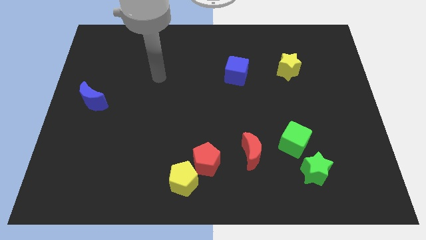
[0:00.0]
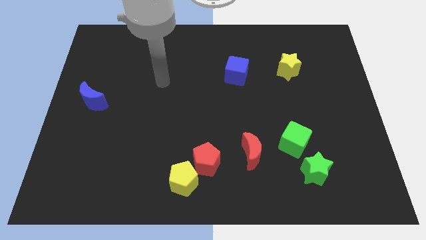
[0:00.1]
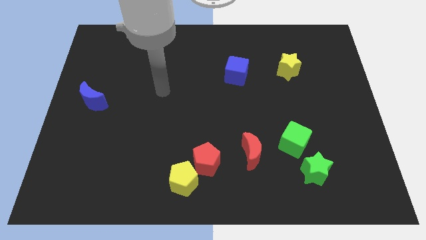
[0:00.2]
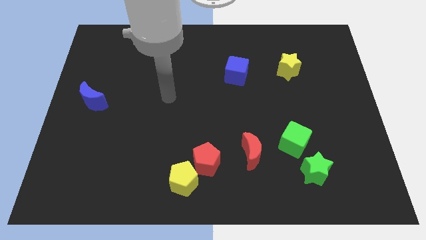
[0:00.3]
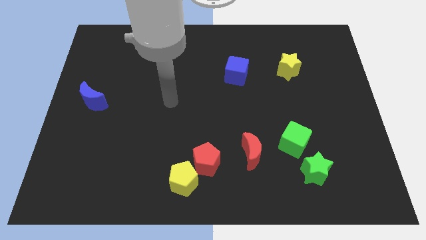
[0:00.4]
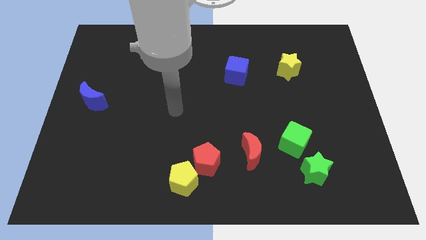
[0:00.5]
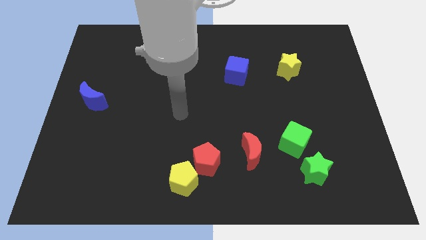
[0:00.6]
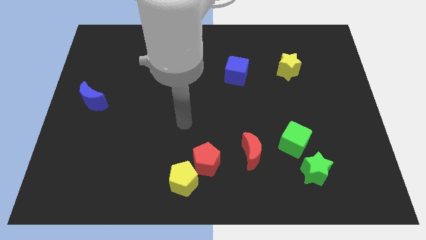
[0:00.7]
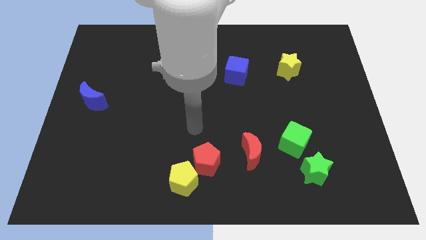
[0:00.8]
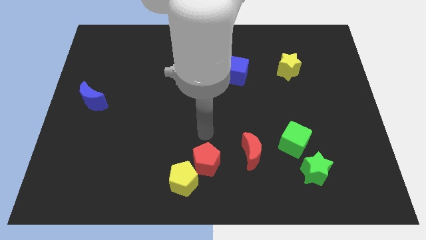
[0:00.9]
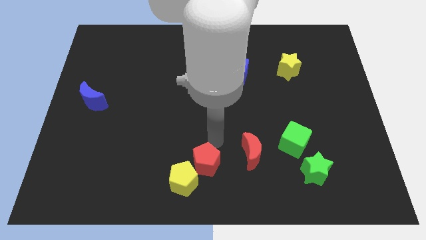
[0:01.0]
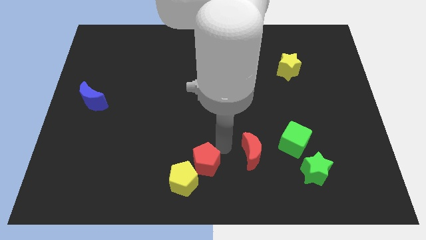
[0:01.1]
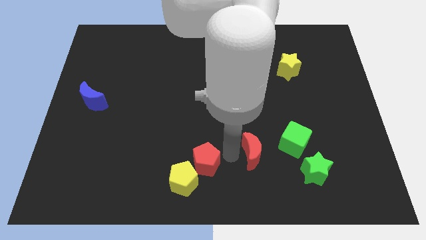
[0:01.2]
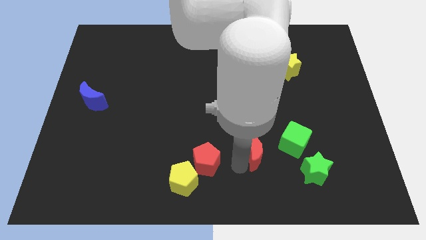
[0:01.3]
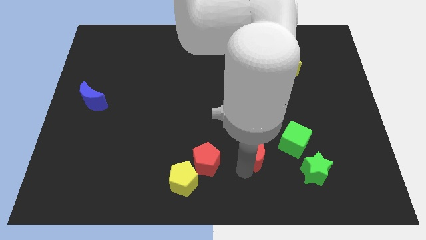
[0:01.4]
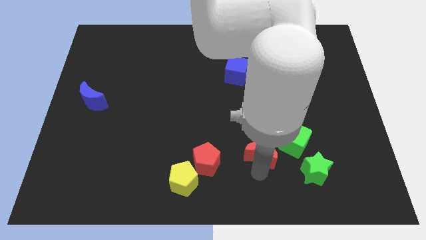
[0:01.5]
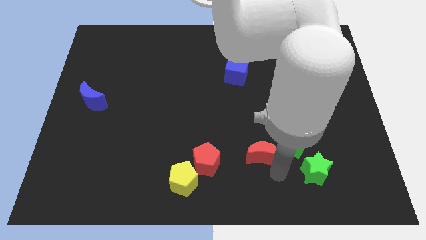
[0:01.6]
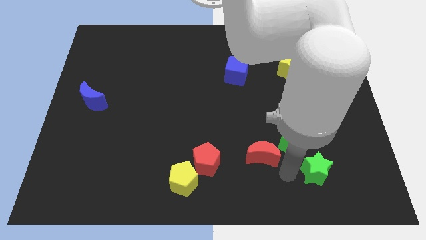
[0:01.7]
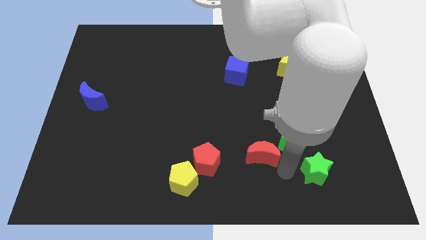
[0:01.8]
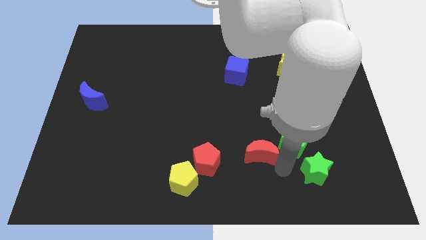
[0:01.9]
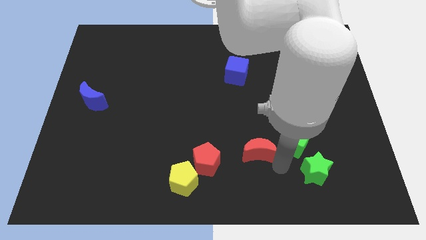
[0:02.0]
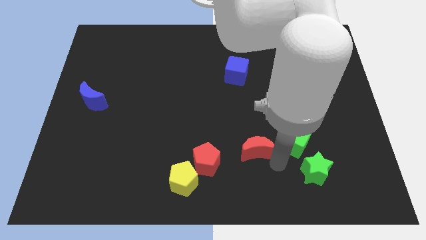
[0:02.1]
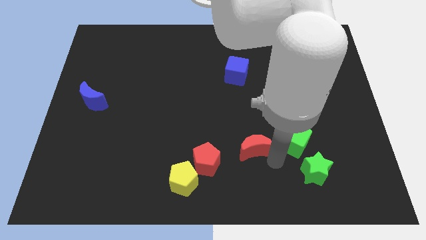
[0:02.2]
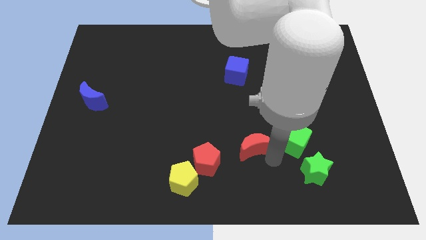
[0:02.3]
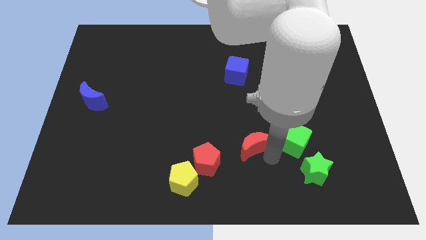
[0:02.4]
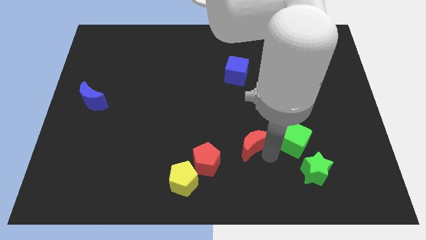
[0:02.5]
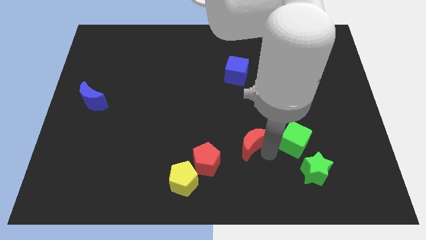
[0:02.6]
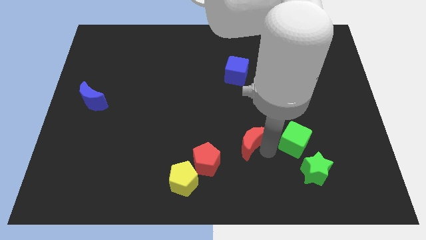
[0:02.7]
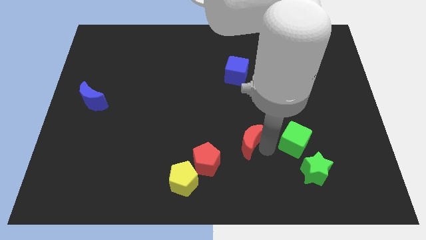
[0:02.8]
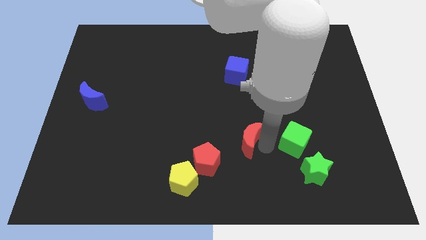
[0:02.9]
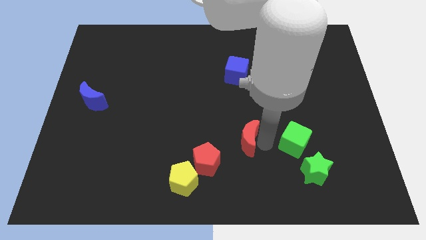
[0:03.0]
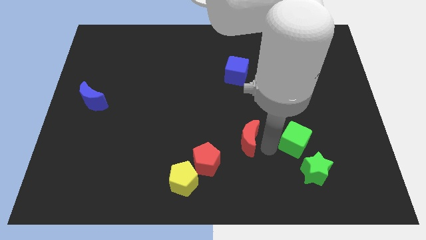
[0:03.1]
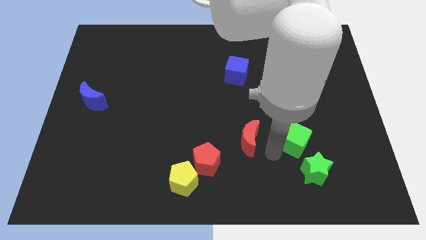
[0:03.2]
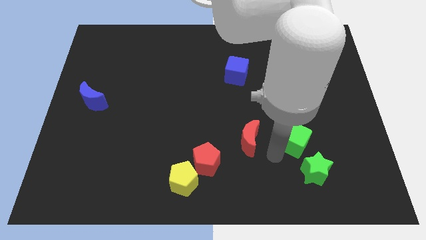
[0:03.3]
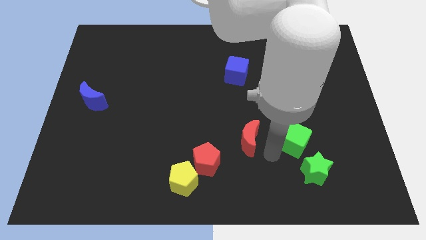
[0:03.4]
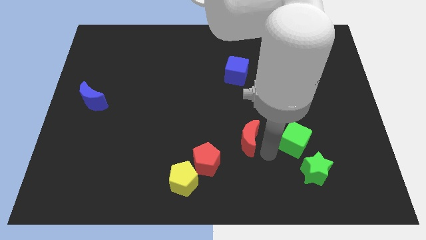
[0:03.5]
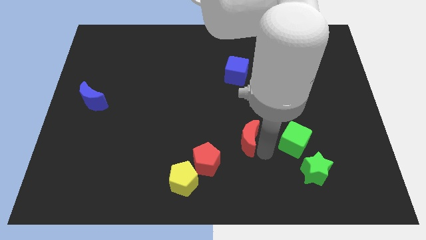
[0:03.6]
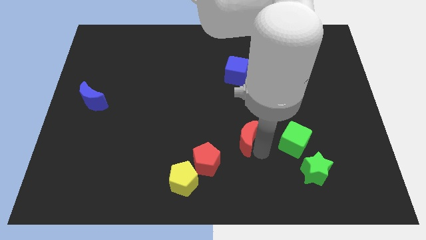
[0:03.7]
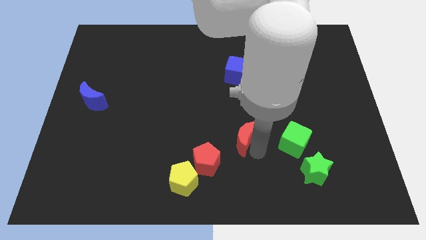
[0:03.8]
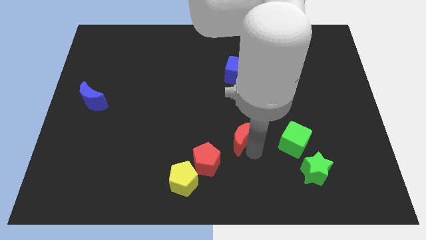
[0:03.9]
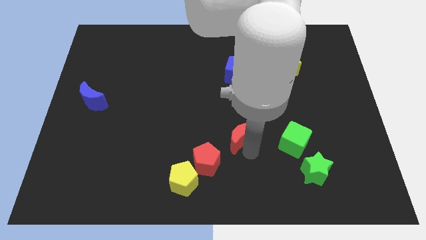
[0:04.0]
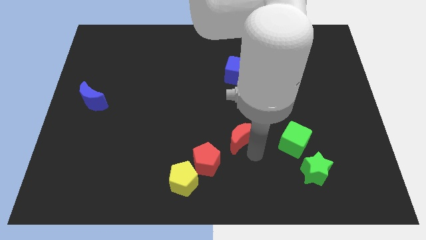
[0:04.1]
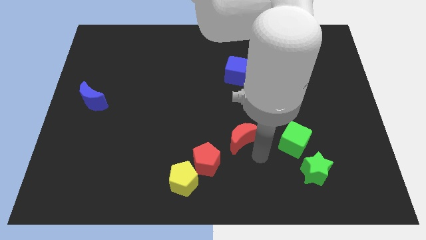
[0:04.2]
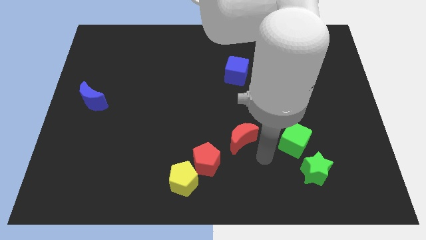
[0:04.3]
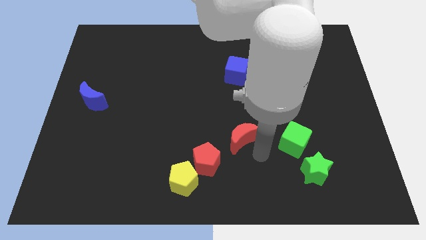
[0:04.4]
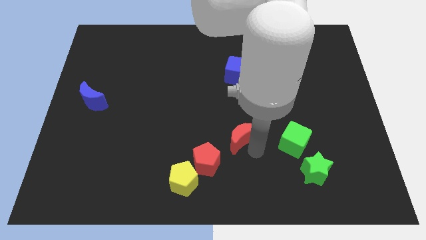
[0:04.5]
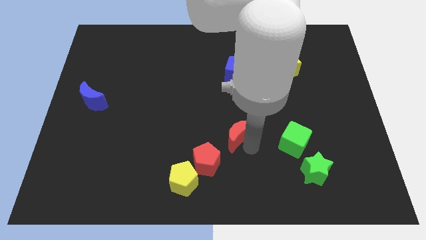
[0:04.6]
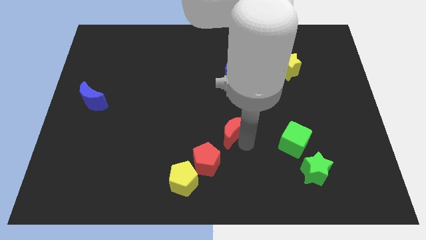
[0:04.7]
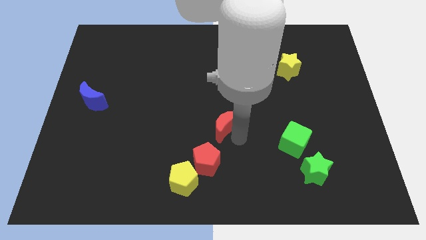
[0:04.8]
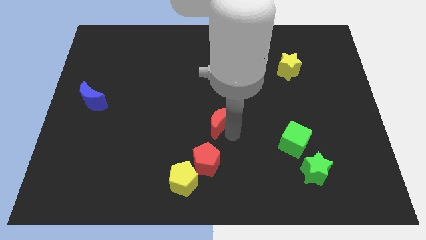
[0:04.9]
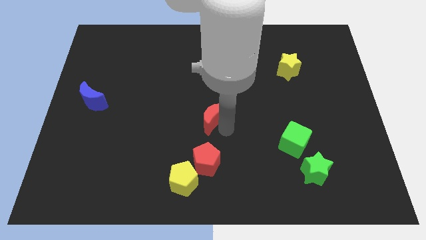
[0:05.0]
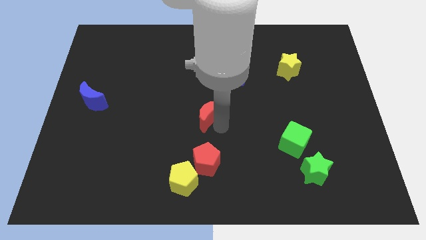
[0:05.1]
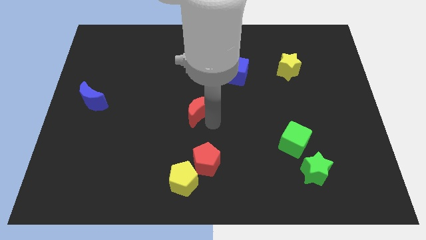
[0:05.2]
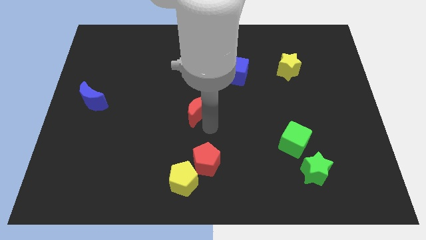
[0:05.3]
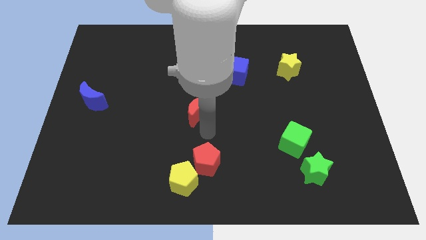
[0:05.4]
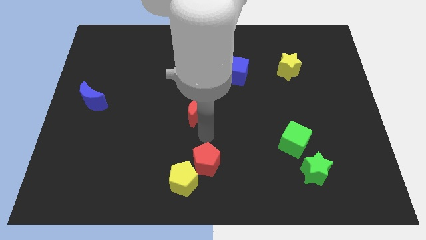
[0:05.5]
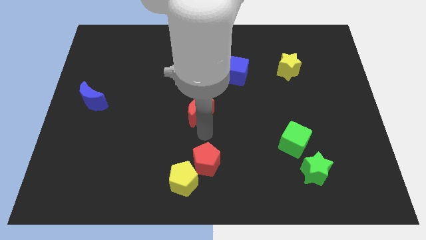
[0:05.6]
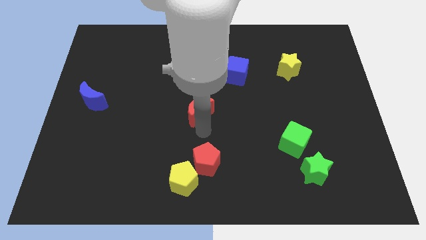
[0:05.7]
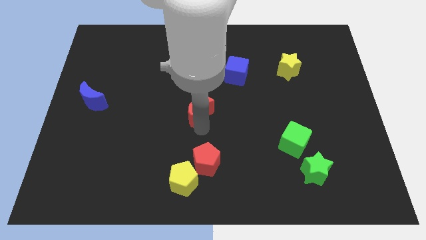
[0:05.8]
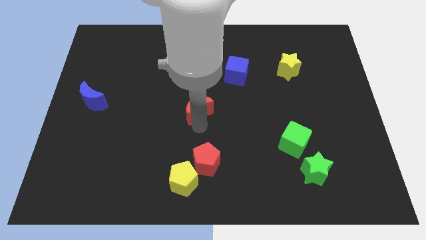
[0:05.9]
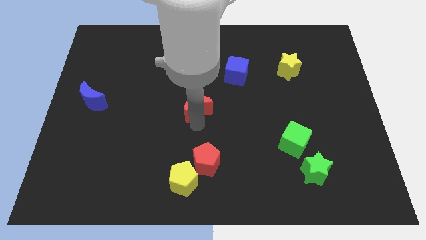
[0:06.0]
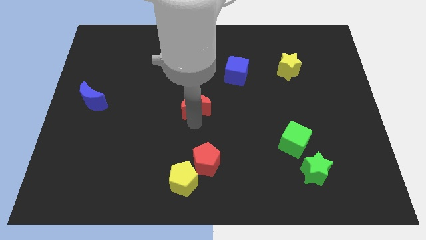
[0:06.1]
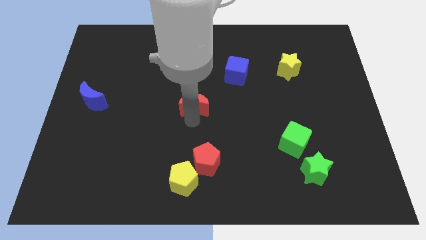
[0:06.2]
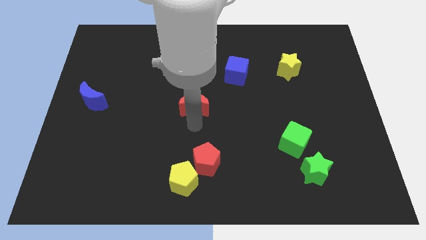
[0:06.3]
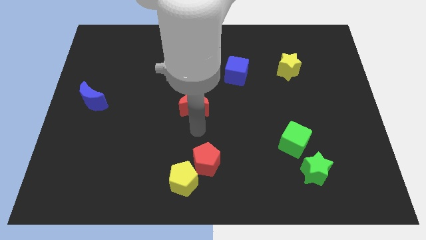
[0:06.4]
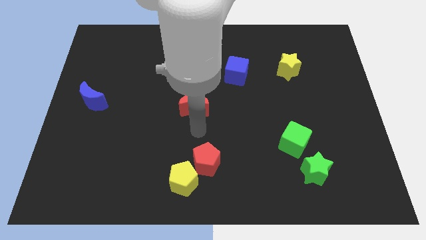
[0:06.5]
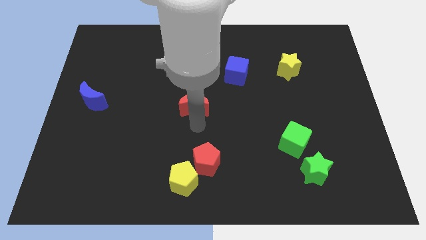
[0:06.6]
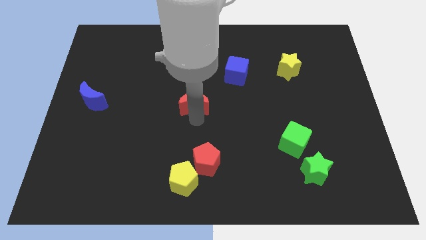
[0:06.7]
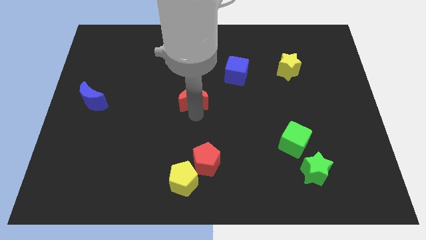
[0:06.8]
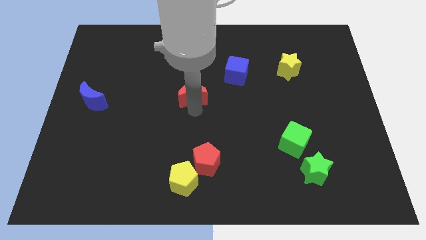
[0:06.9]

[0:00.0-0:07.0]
slide the red moon upwards and then to the left

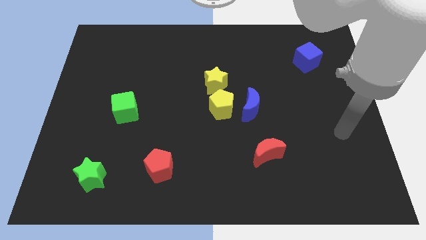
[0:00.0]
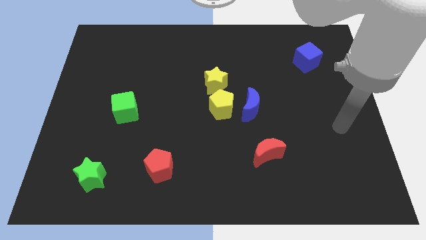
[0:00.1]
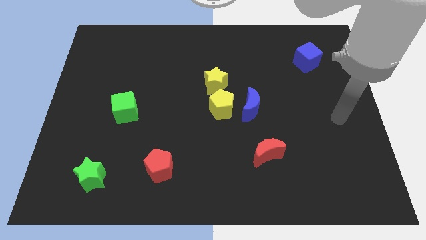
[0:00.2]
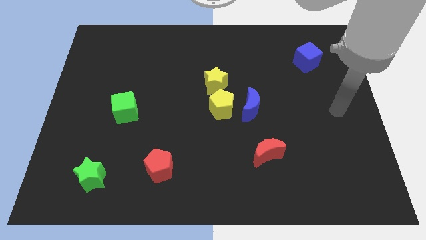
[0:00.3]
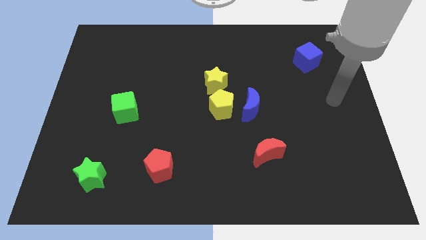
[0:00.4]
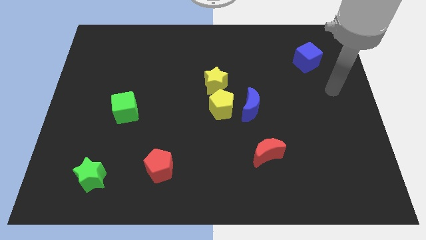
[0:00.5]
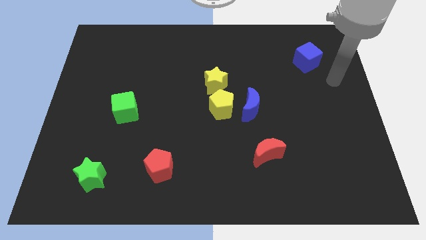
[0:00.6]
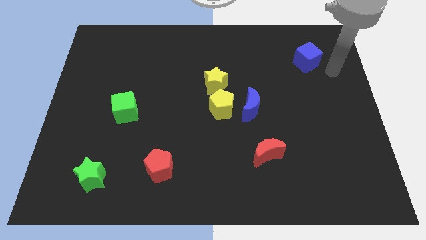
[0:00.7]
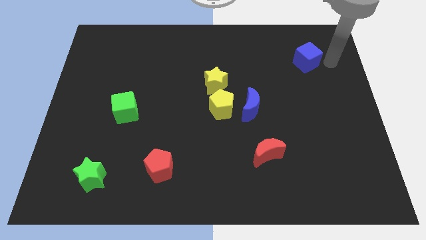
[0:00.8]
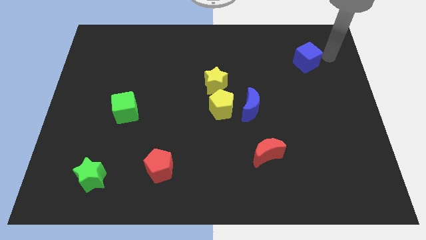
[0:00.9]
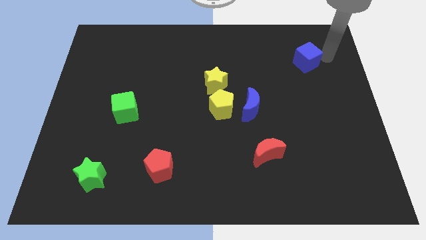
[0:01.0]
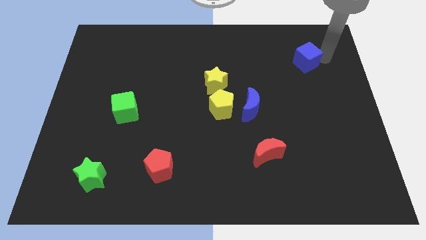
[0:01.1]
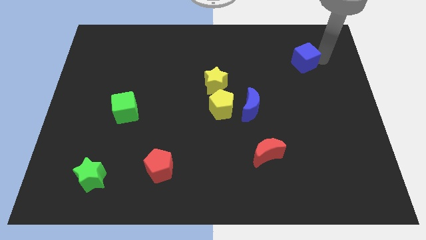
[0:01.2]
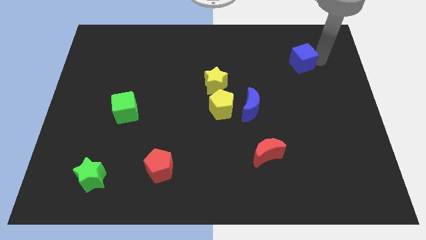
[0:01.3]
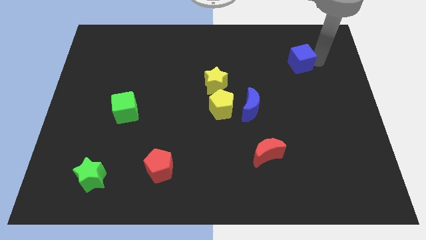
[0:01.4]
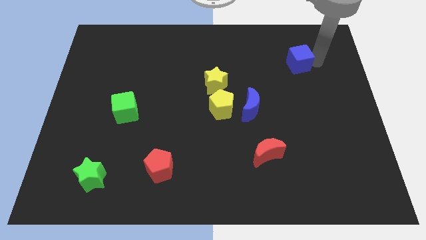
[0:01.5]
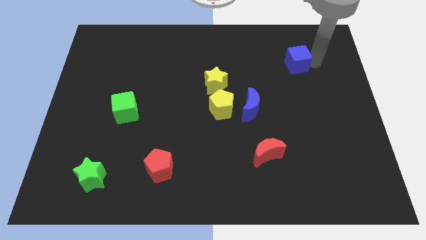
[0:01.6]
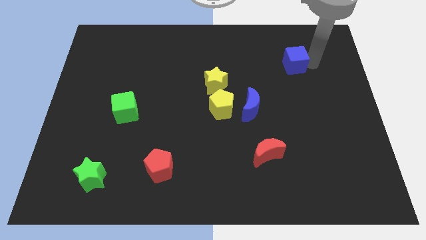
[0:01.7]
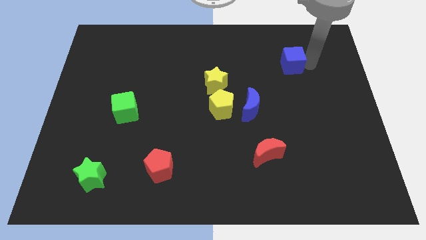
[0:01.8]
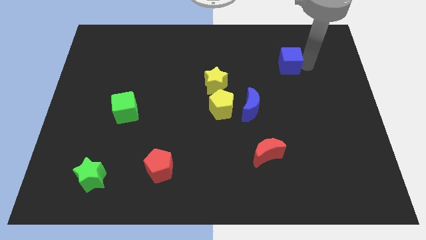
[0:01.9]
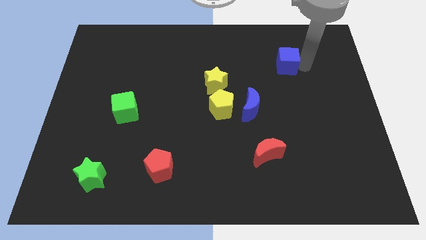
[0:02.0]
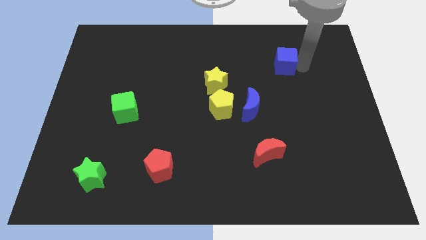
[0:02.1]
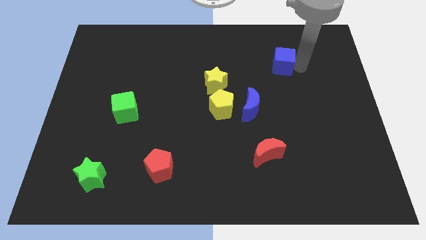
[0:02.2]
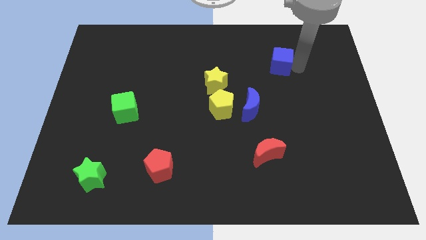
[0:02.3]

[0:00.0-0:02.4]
push the blue cube left somewhat
